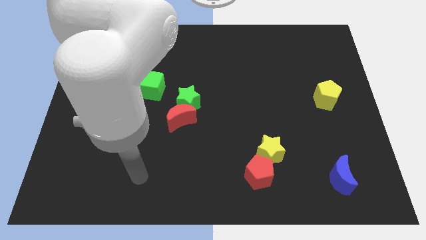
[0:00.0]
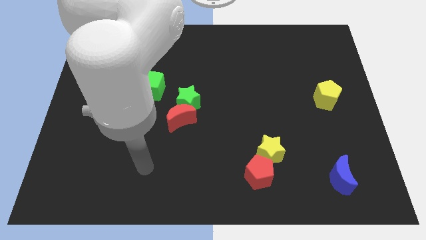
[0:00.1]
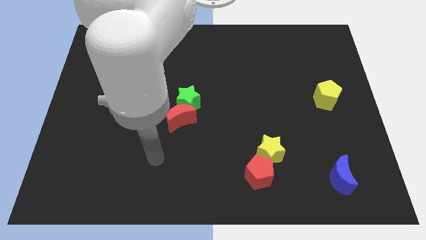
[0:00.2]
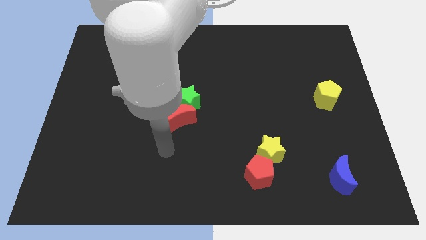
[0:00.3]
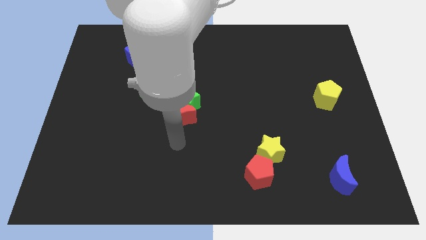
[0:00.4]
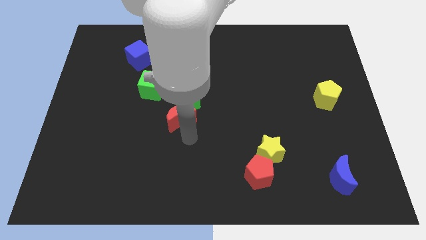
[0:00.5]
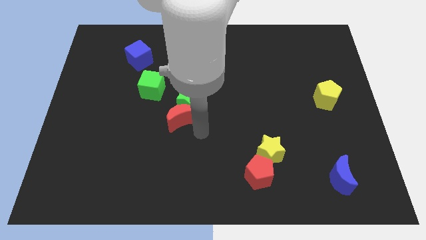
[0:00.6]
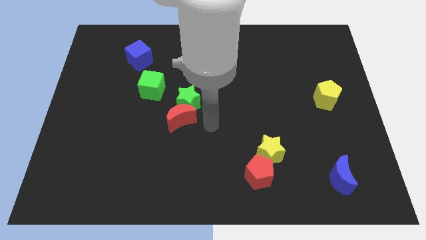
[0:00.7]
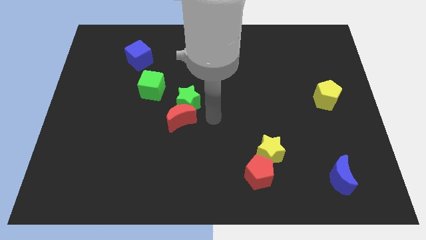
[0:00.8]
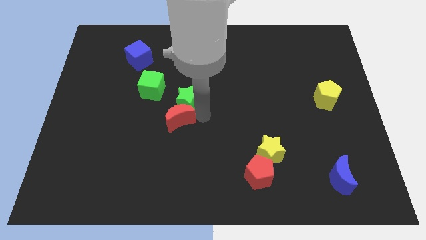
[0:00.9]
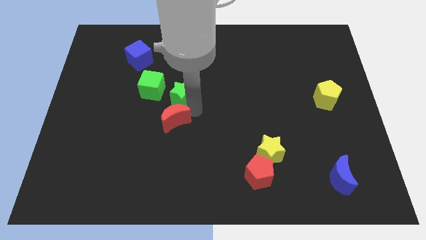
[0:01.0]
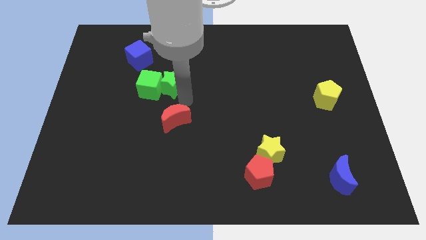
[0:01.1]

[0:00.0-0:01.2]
separate the red moon from the green star

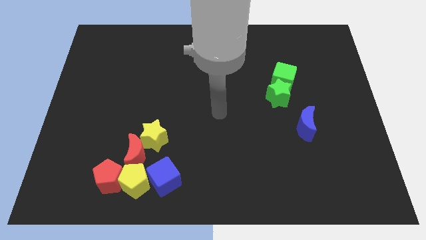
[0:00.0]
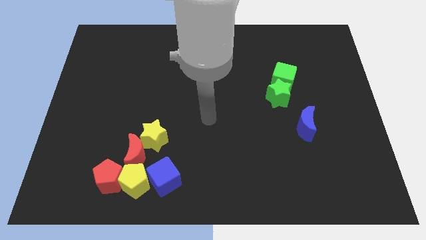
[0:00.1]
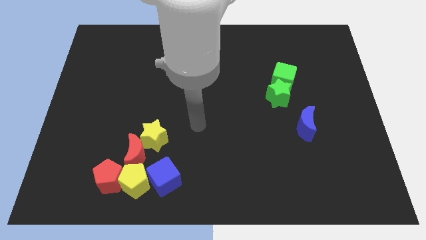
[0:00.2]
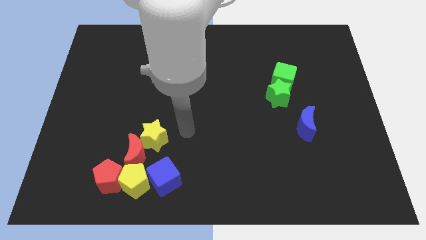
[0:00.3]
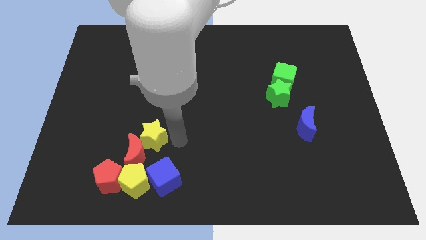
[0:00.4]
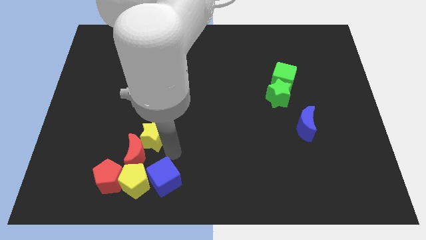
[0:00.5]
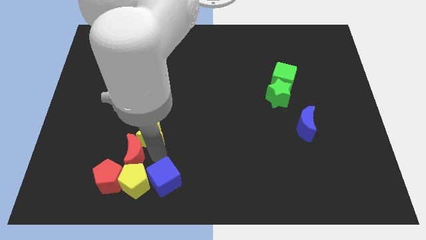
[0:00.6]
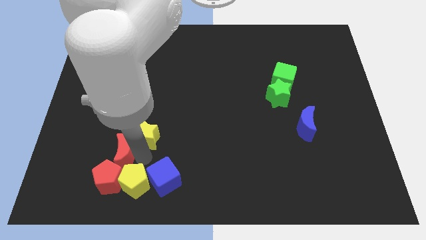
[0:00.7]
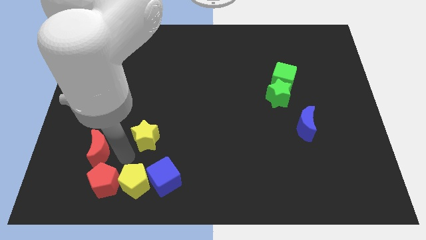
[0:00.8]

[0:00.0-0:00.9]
move the yellow star away from the red moon

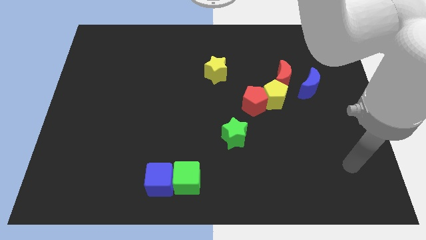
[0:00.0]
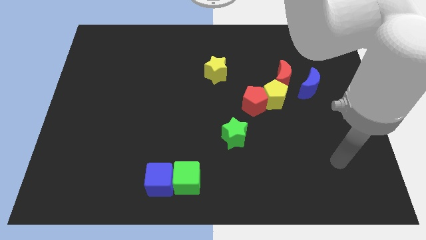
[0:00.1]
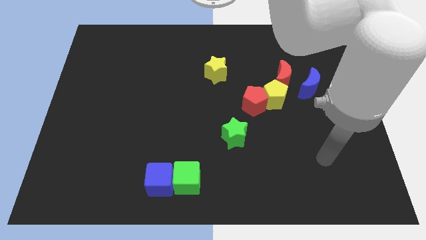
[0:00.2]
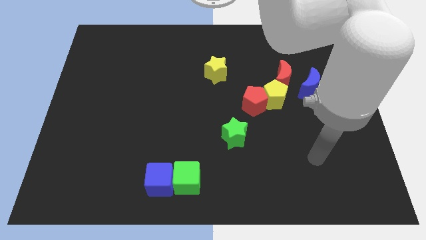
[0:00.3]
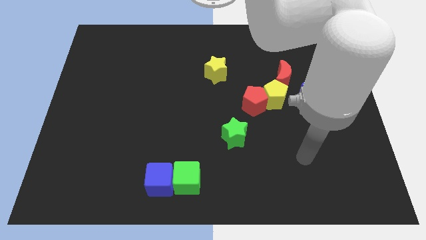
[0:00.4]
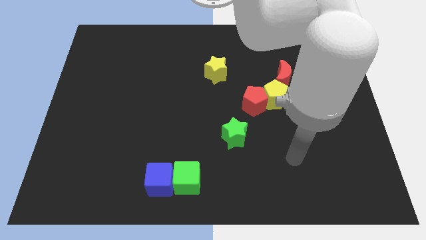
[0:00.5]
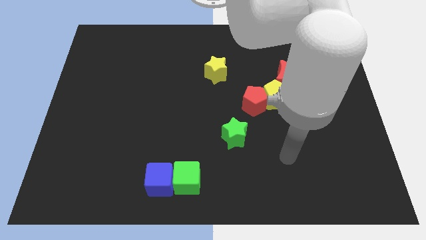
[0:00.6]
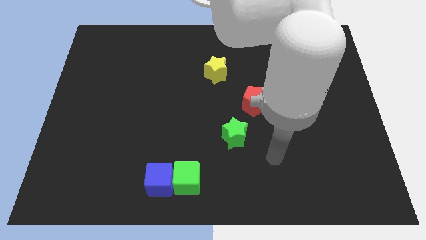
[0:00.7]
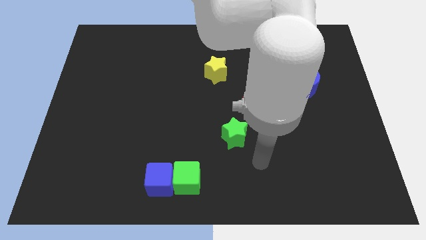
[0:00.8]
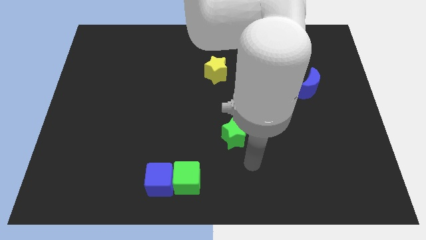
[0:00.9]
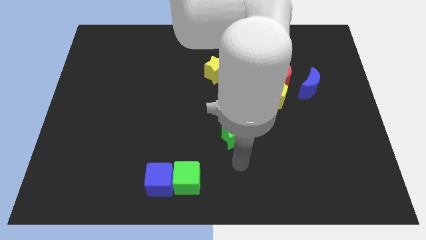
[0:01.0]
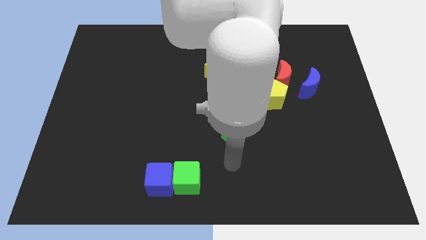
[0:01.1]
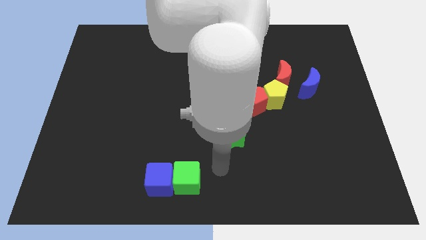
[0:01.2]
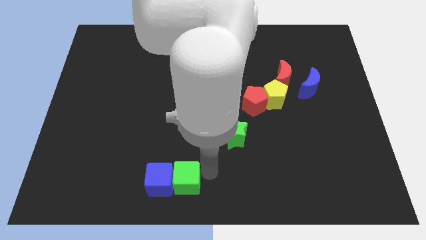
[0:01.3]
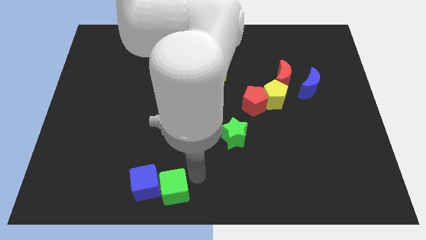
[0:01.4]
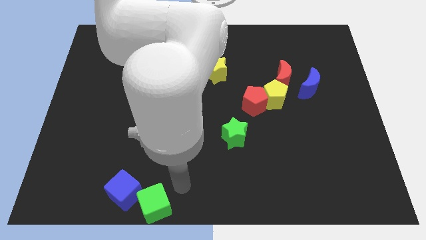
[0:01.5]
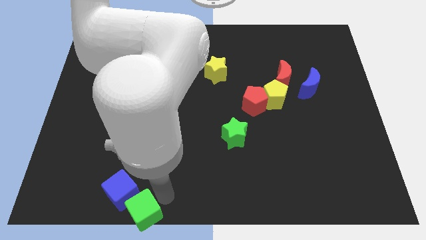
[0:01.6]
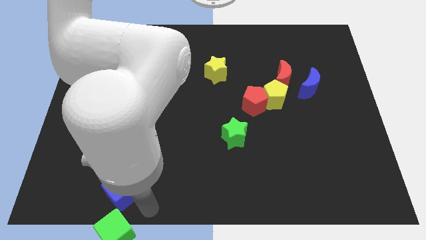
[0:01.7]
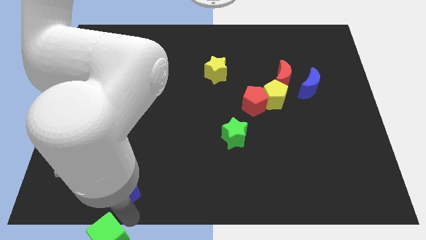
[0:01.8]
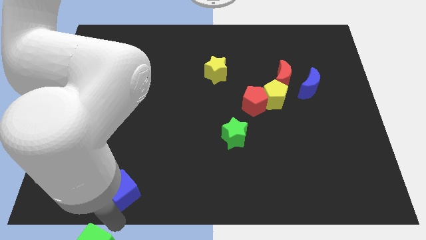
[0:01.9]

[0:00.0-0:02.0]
pull the blue cube apart from the green cube

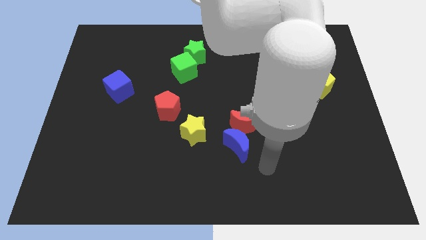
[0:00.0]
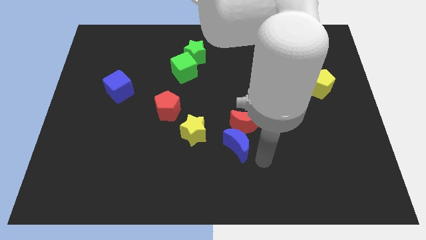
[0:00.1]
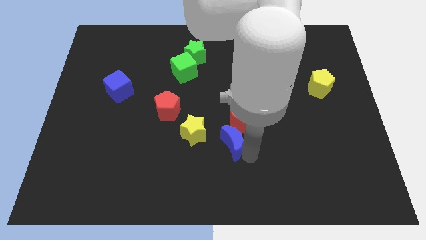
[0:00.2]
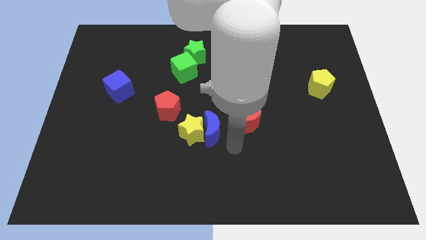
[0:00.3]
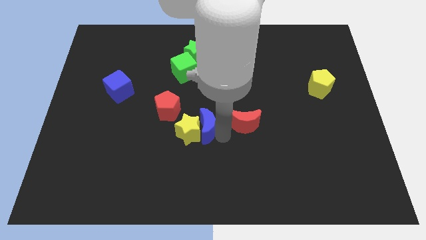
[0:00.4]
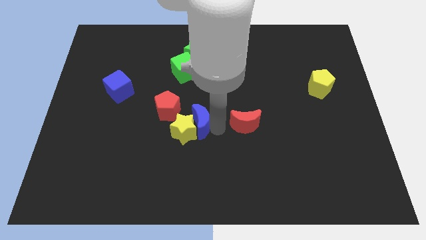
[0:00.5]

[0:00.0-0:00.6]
move the red moon away from the blue moon

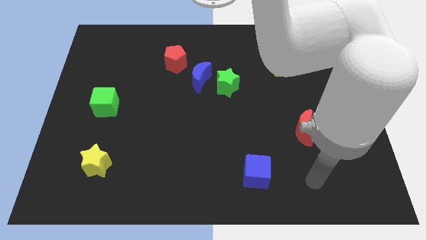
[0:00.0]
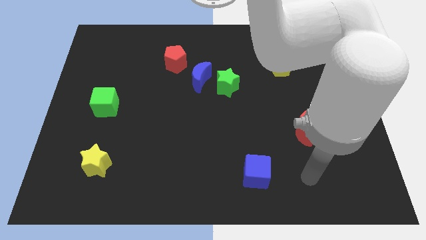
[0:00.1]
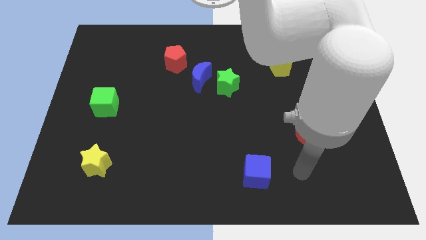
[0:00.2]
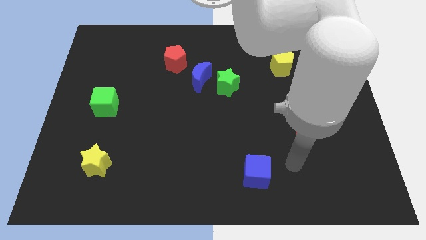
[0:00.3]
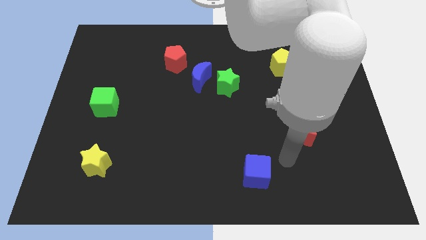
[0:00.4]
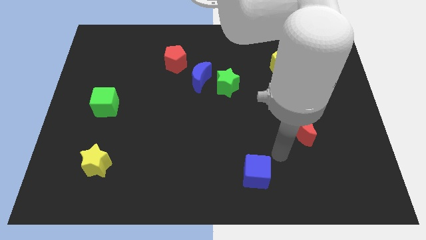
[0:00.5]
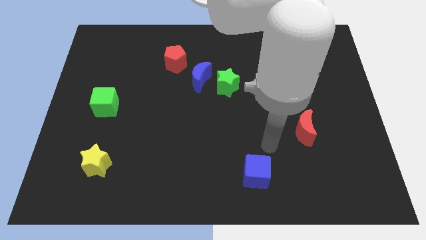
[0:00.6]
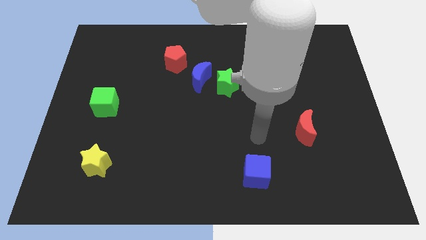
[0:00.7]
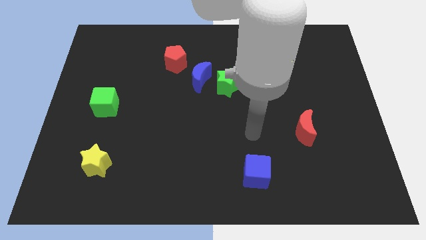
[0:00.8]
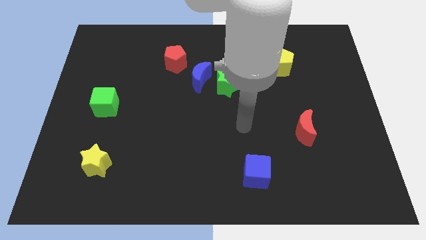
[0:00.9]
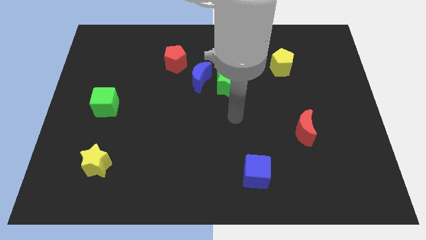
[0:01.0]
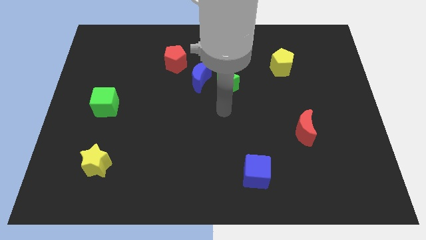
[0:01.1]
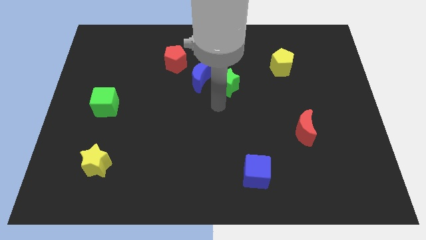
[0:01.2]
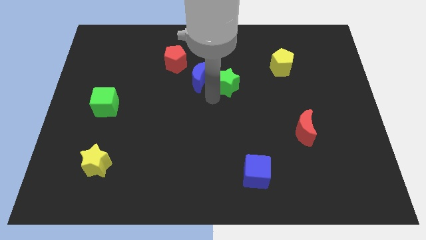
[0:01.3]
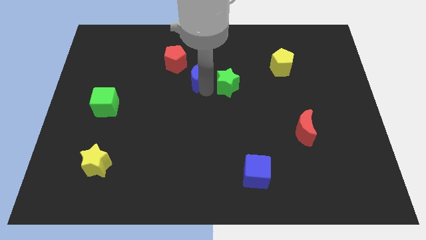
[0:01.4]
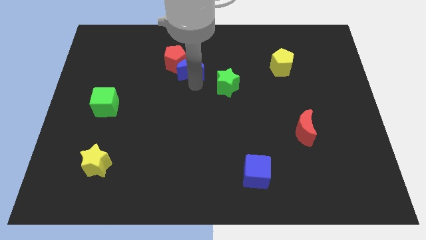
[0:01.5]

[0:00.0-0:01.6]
separate the green star from the blue moon

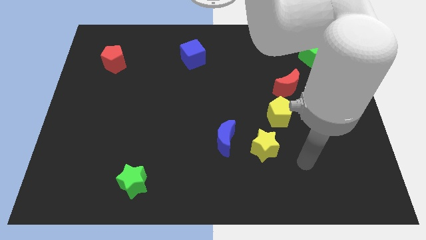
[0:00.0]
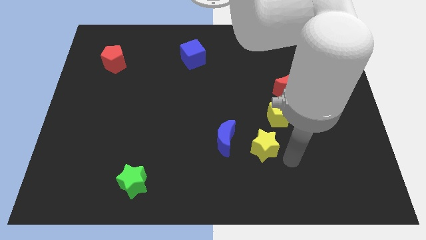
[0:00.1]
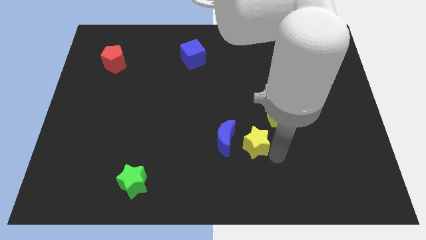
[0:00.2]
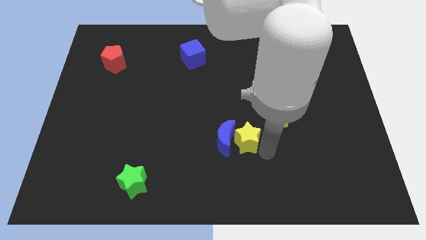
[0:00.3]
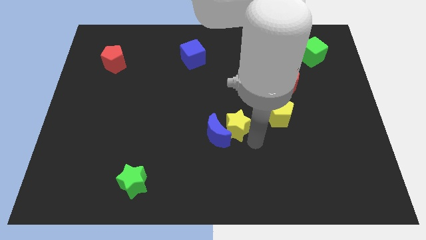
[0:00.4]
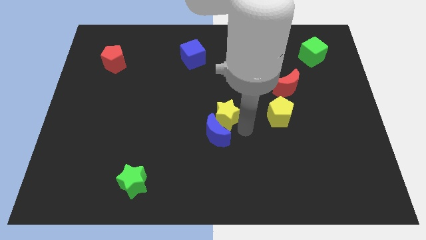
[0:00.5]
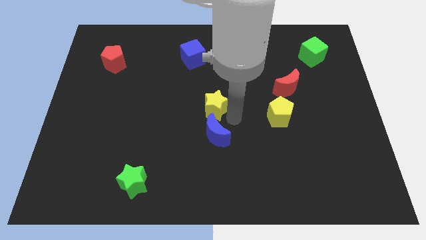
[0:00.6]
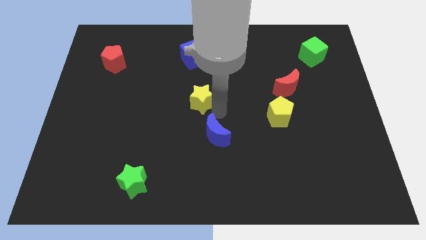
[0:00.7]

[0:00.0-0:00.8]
pull the blue moon apart from the yellow star

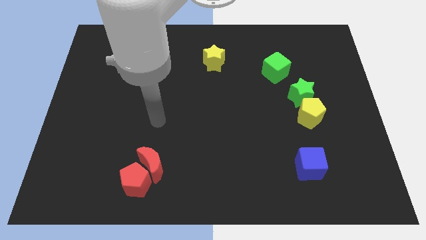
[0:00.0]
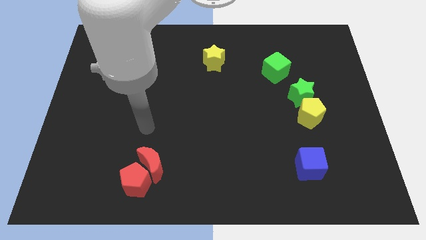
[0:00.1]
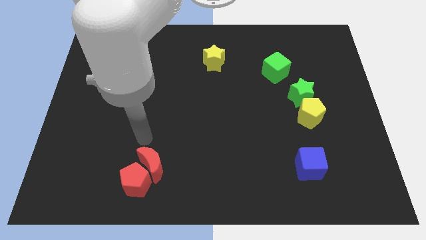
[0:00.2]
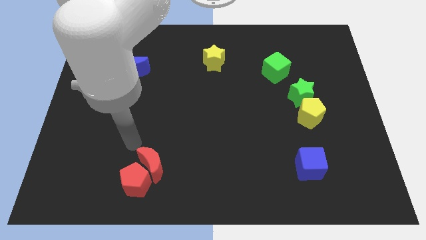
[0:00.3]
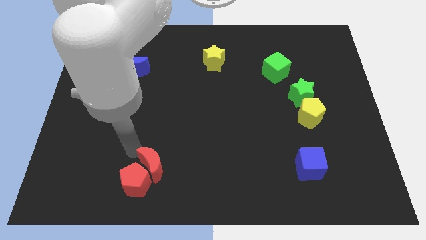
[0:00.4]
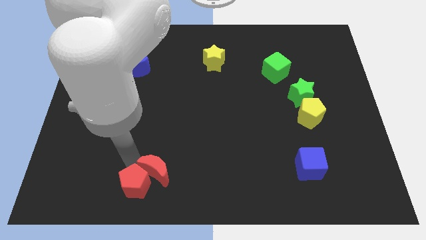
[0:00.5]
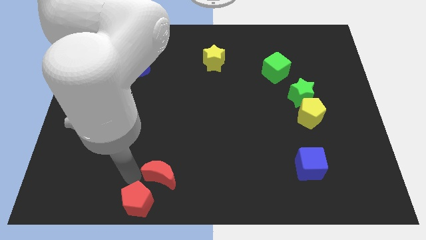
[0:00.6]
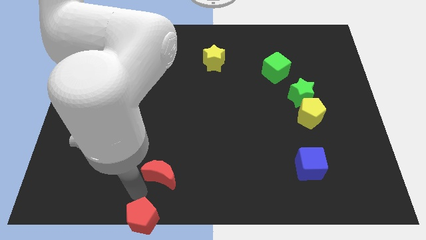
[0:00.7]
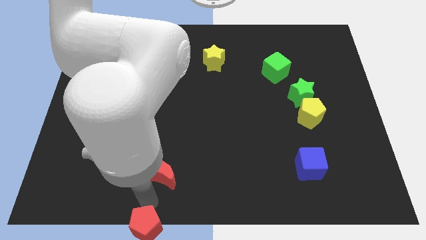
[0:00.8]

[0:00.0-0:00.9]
pull the red moon apart from the red pentagon

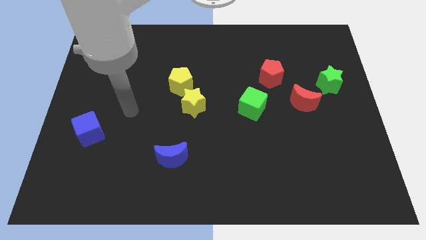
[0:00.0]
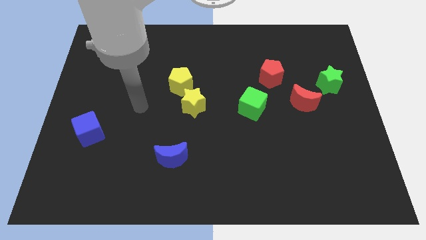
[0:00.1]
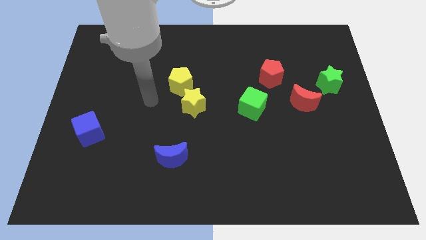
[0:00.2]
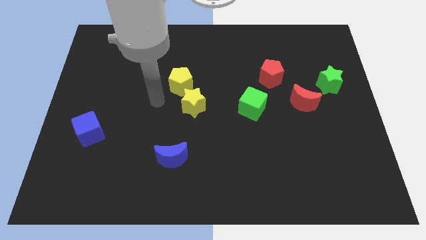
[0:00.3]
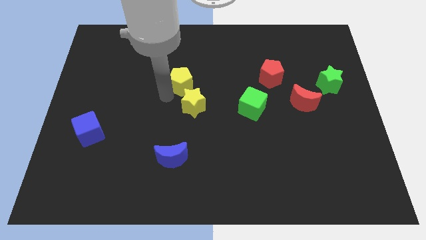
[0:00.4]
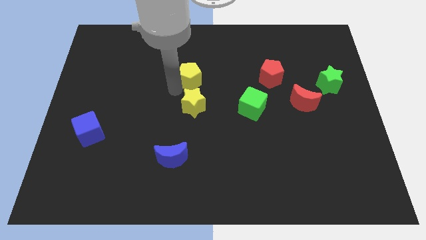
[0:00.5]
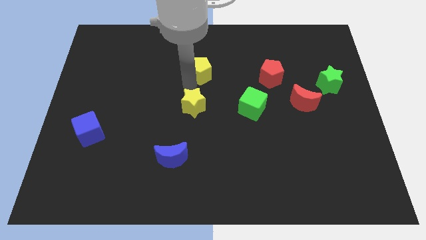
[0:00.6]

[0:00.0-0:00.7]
move the yellow star away from the yellow pentagon

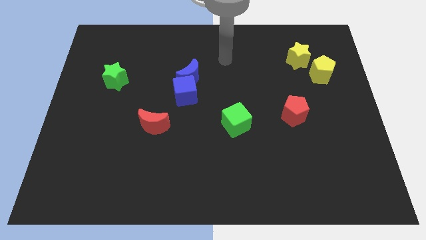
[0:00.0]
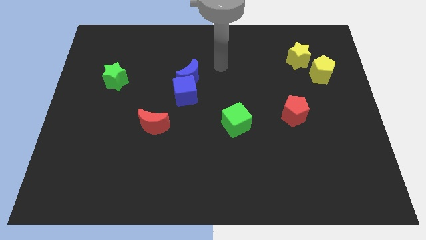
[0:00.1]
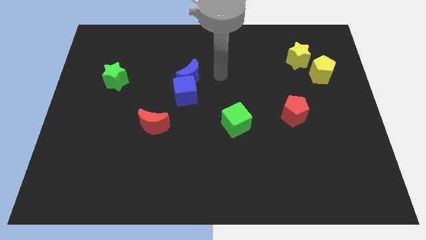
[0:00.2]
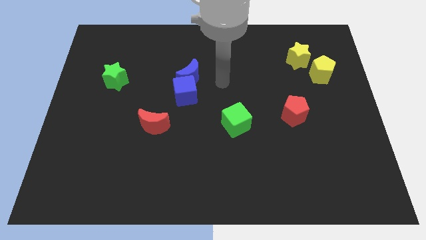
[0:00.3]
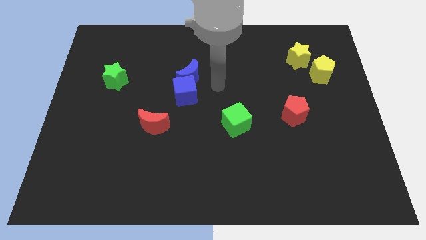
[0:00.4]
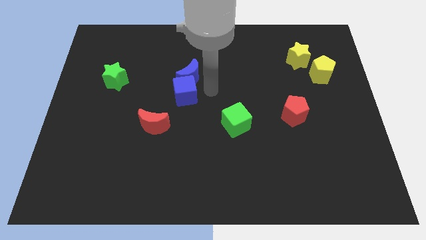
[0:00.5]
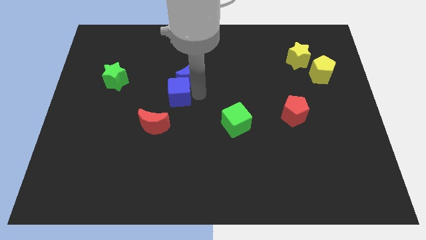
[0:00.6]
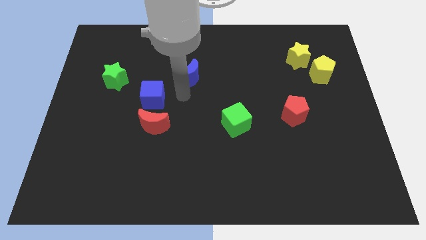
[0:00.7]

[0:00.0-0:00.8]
separate the blue moon from the blue cube
